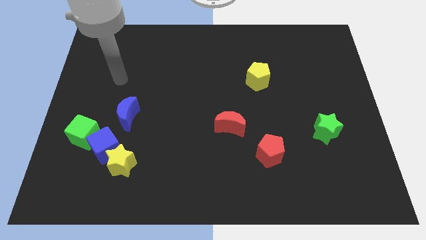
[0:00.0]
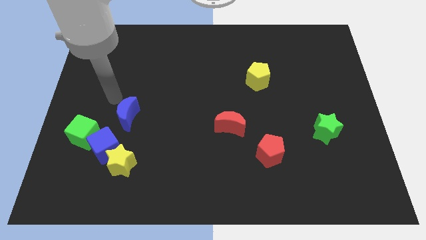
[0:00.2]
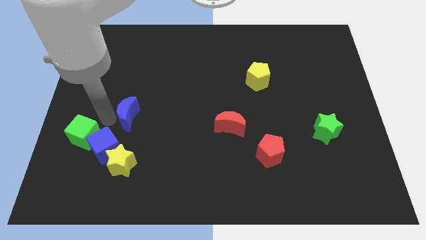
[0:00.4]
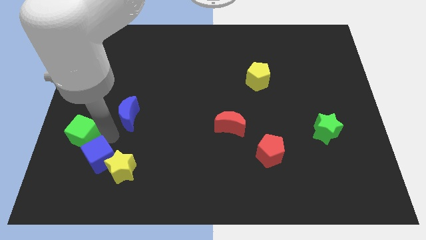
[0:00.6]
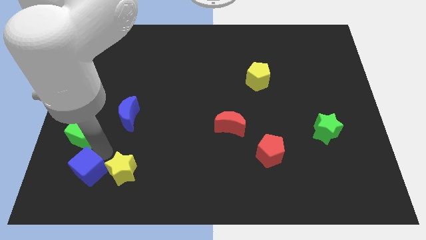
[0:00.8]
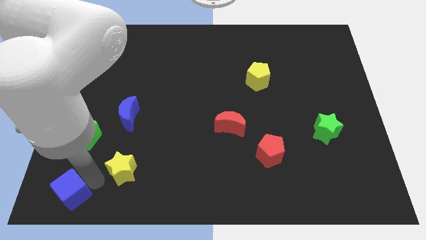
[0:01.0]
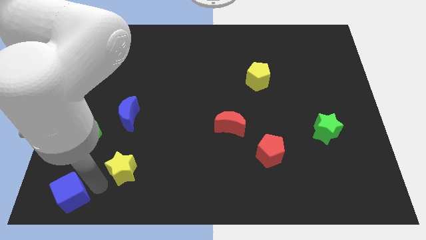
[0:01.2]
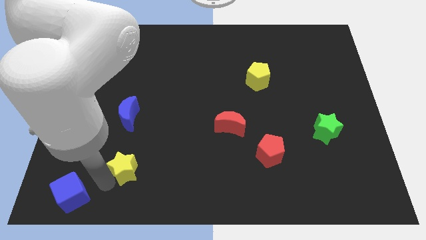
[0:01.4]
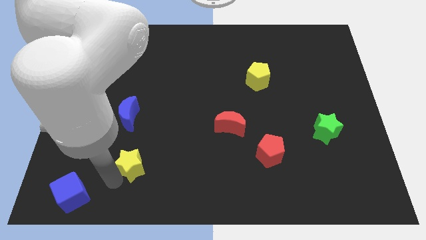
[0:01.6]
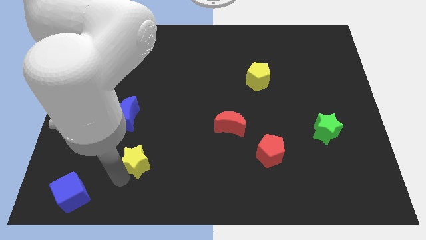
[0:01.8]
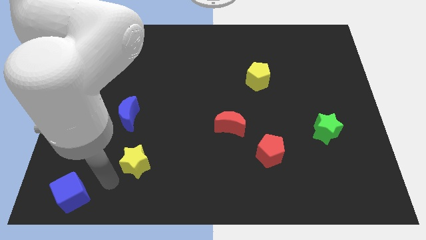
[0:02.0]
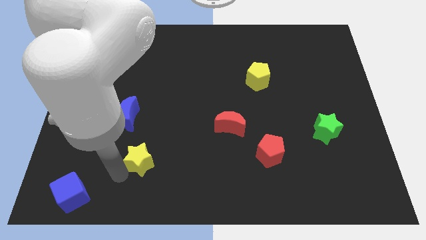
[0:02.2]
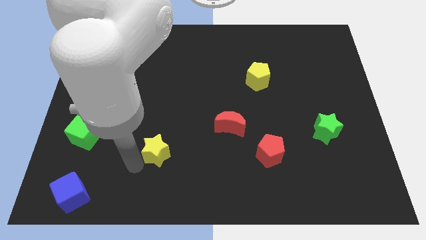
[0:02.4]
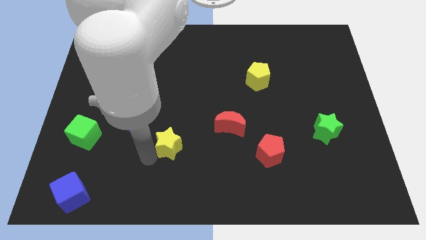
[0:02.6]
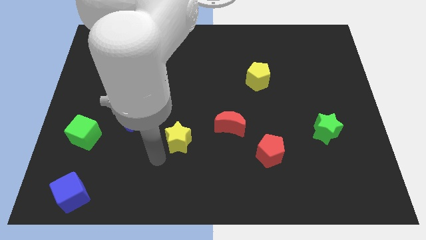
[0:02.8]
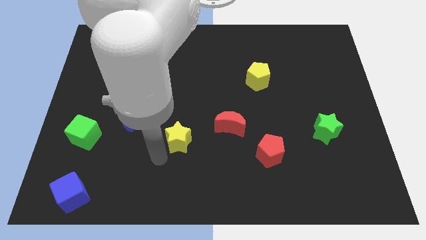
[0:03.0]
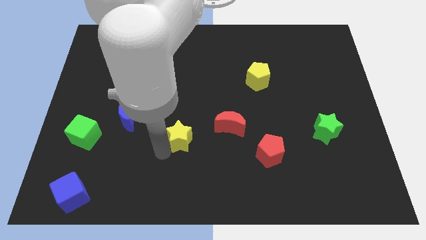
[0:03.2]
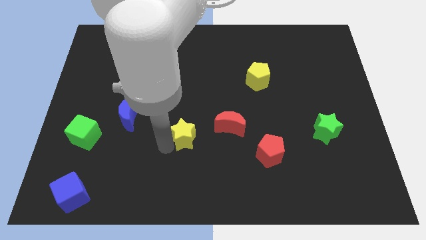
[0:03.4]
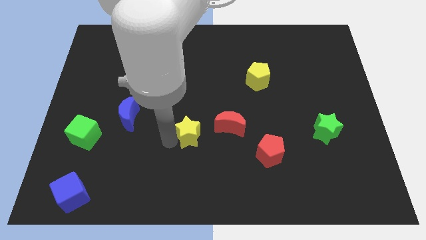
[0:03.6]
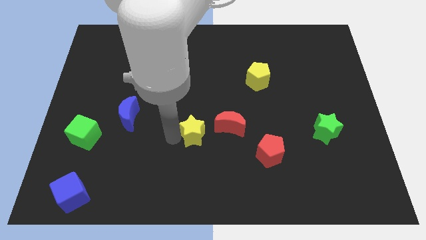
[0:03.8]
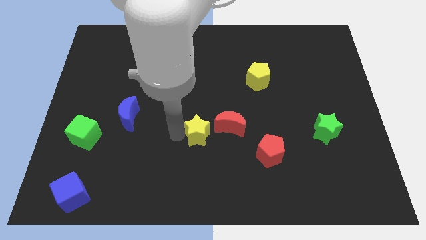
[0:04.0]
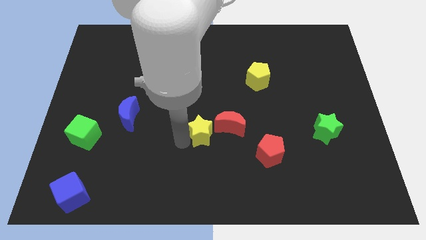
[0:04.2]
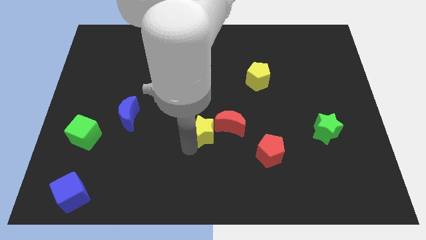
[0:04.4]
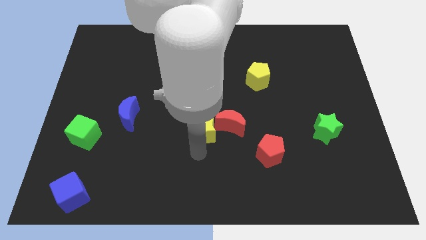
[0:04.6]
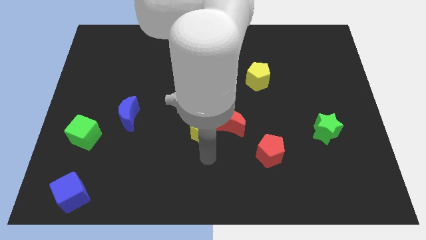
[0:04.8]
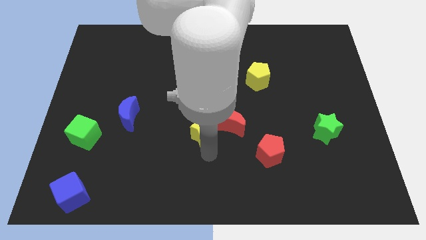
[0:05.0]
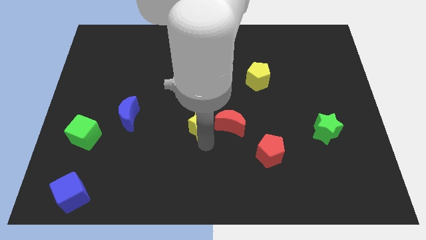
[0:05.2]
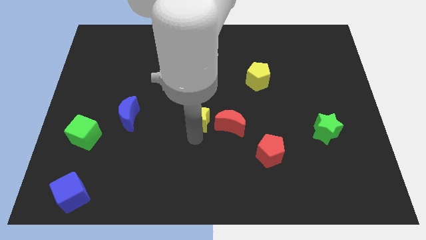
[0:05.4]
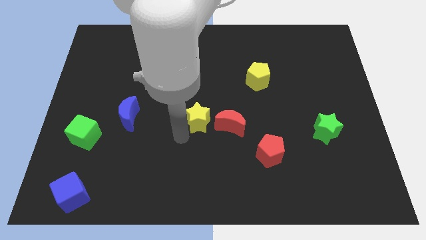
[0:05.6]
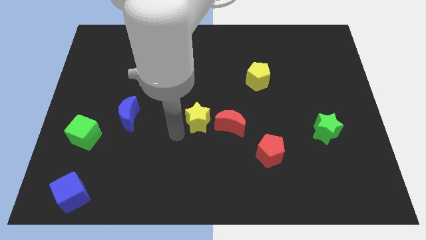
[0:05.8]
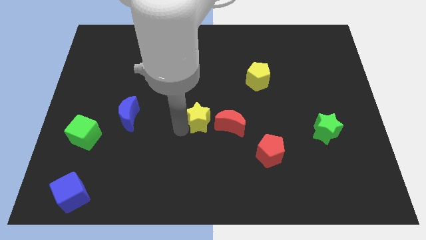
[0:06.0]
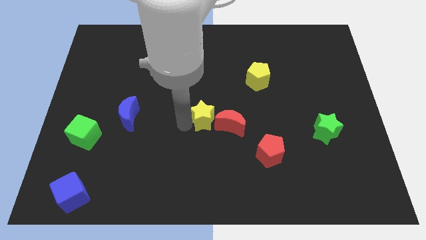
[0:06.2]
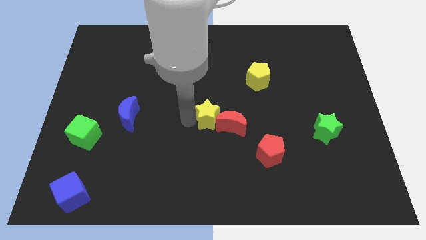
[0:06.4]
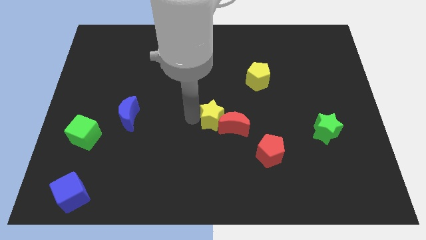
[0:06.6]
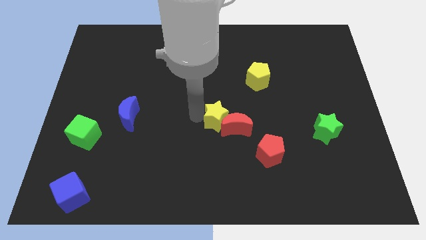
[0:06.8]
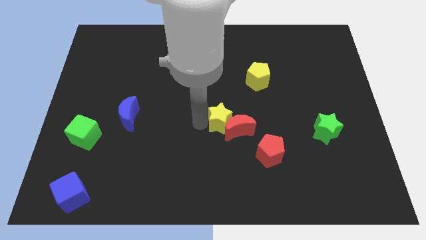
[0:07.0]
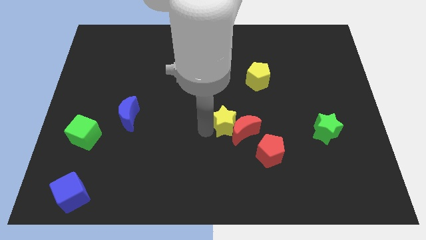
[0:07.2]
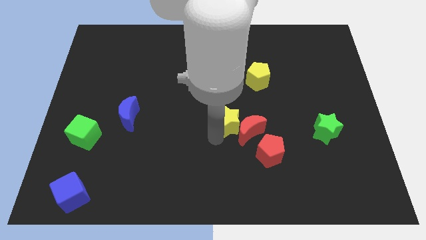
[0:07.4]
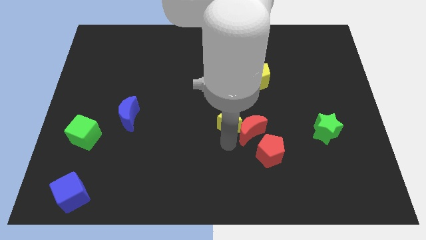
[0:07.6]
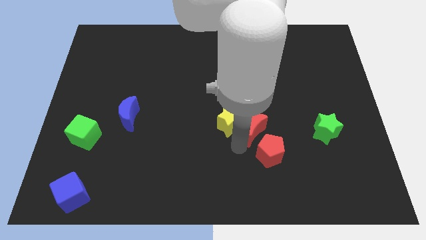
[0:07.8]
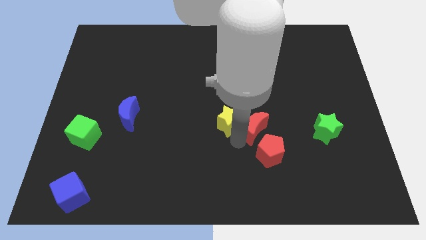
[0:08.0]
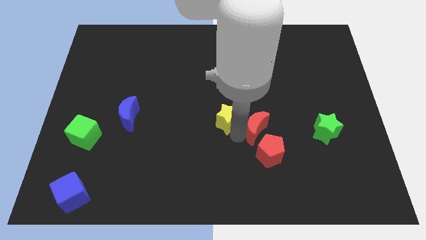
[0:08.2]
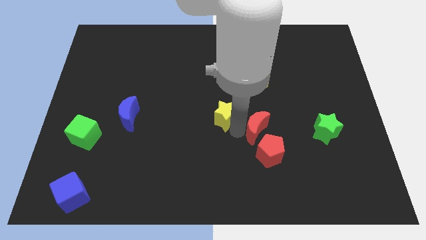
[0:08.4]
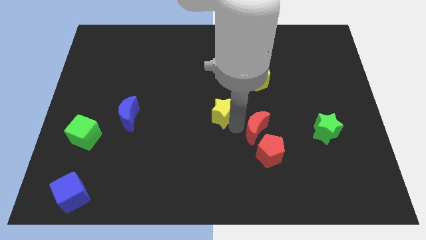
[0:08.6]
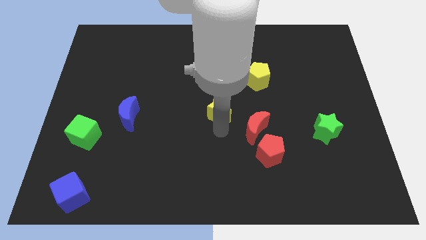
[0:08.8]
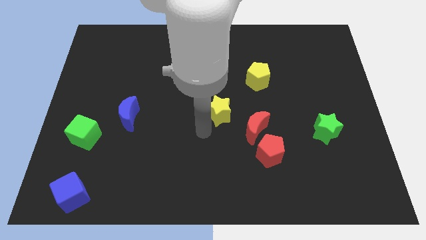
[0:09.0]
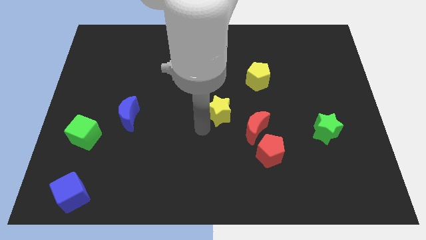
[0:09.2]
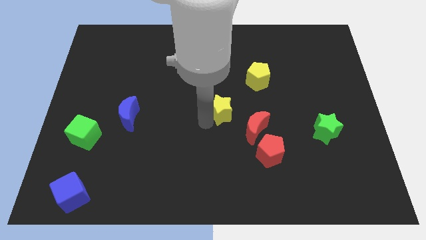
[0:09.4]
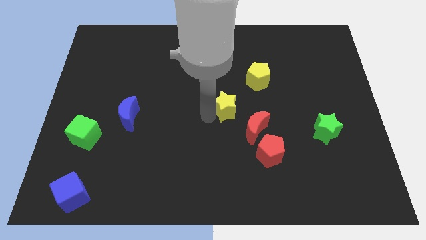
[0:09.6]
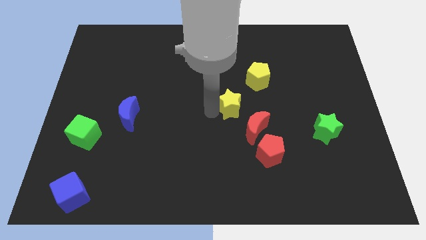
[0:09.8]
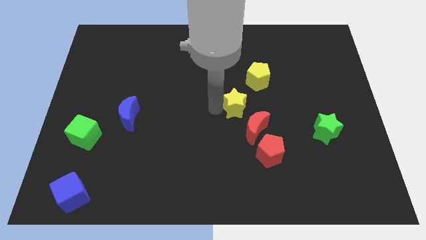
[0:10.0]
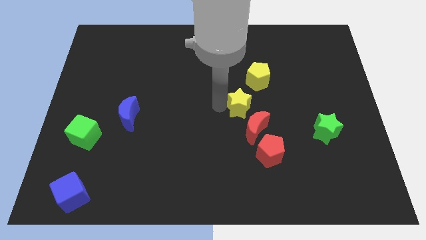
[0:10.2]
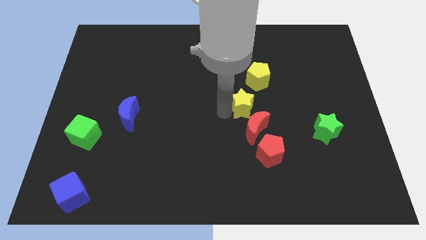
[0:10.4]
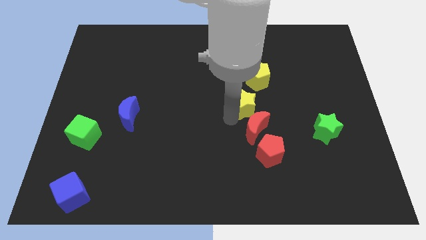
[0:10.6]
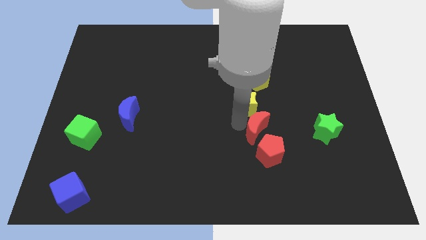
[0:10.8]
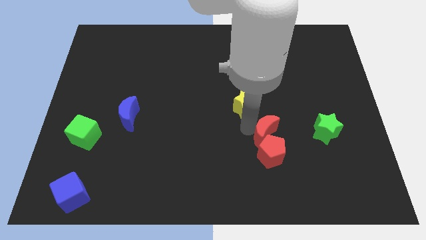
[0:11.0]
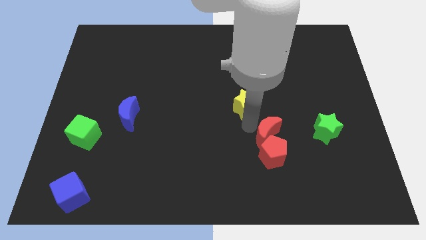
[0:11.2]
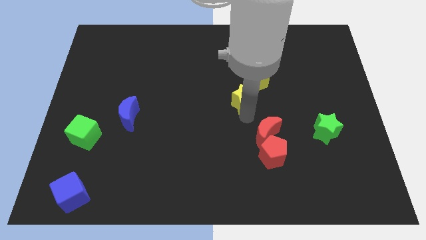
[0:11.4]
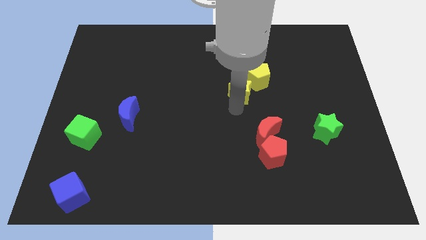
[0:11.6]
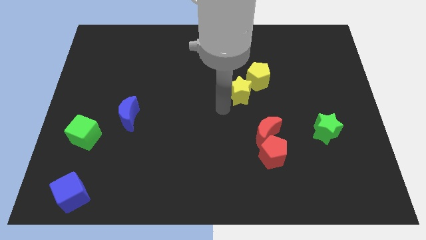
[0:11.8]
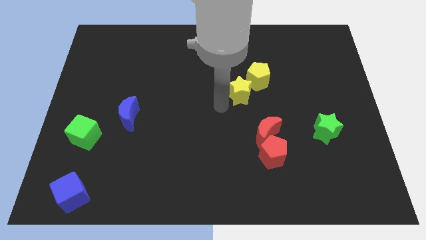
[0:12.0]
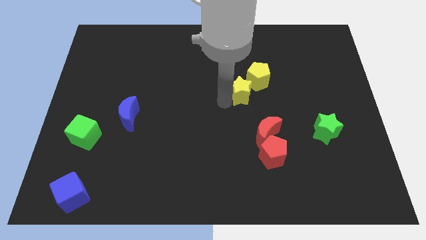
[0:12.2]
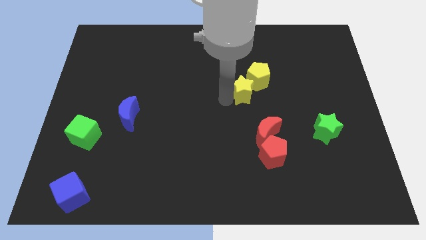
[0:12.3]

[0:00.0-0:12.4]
push the yellow star close to the yellow pentagon
